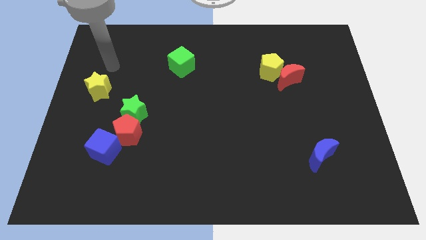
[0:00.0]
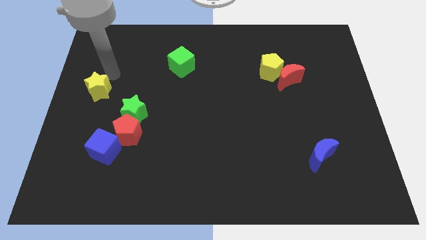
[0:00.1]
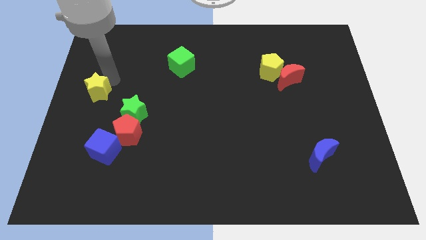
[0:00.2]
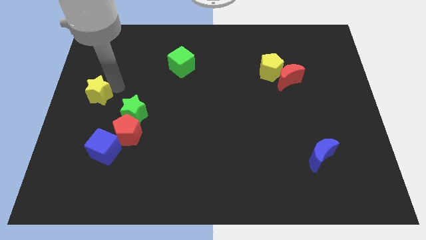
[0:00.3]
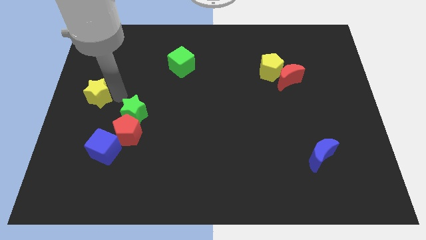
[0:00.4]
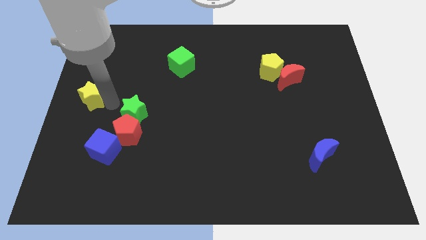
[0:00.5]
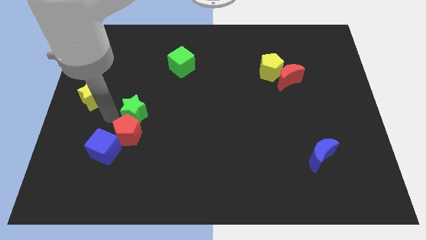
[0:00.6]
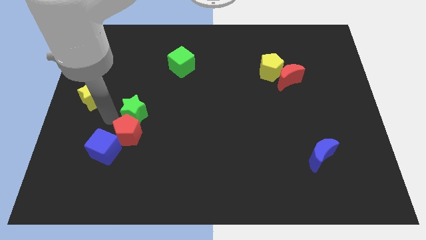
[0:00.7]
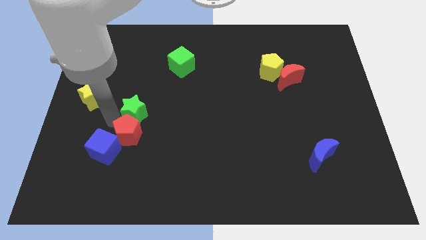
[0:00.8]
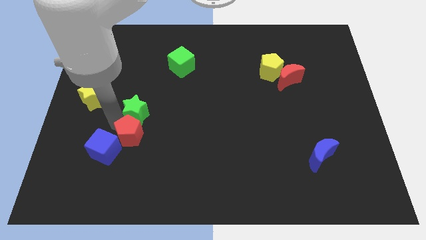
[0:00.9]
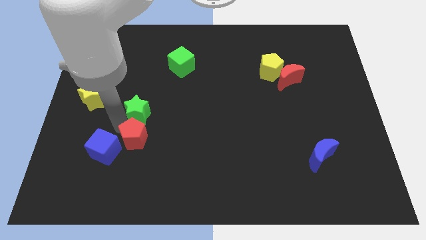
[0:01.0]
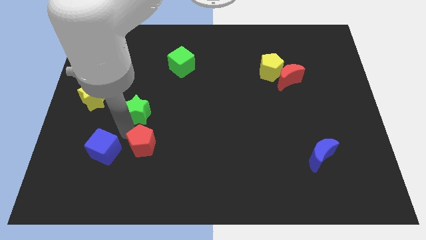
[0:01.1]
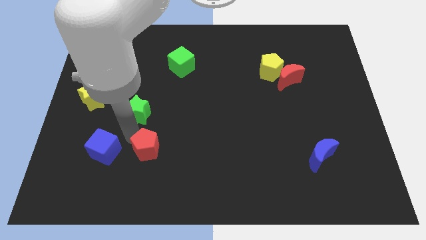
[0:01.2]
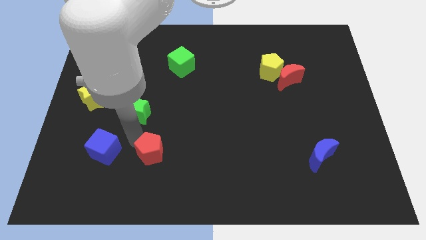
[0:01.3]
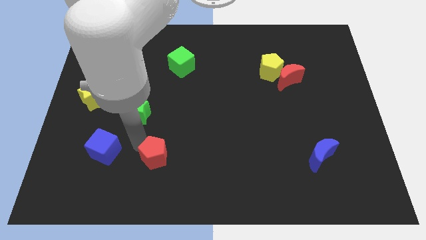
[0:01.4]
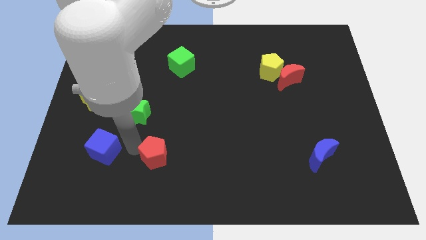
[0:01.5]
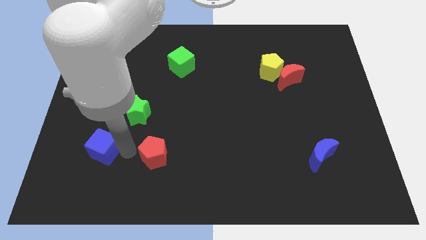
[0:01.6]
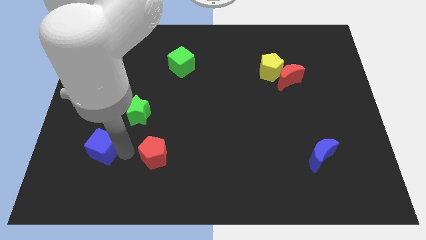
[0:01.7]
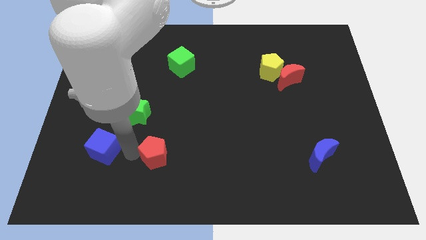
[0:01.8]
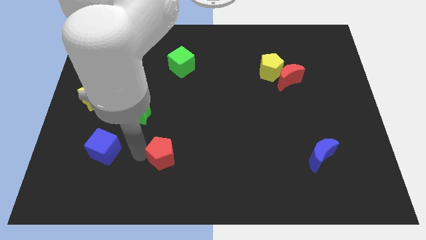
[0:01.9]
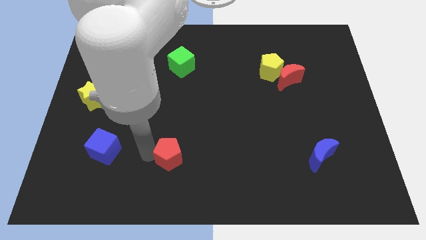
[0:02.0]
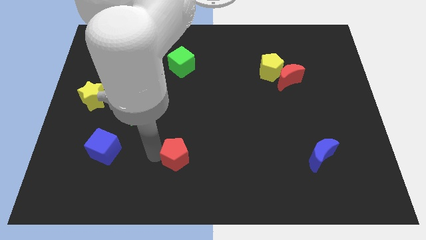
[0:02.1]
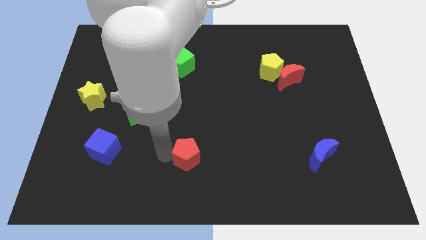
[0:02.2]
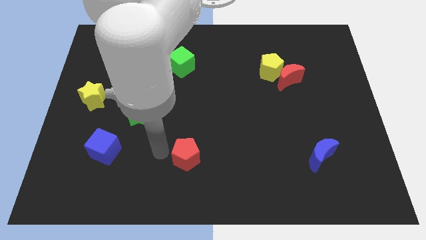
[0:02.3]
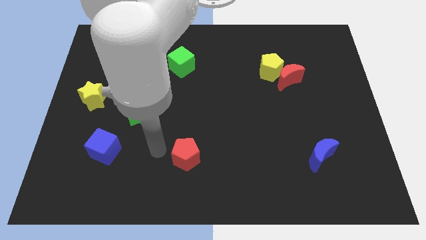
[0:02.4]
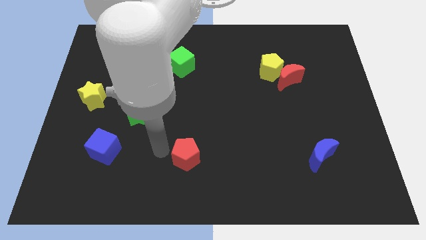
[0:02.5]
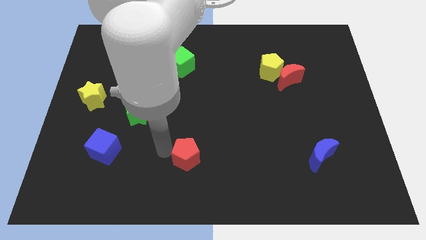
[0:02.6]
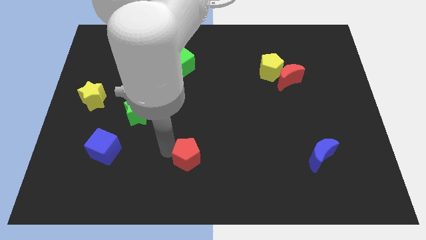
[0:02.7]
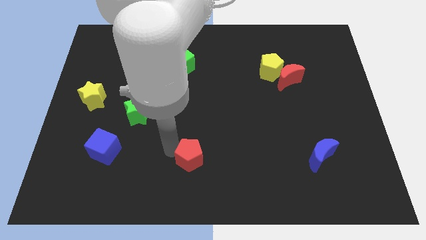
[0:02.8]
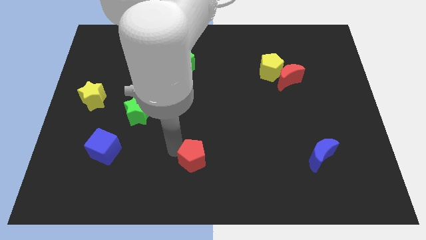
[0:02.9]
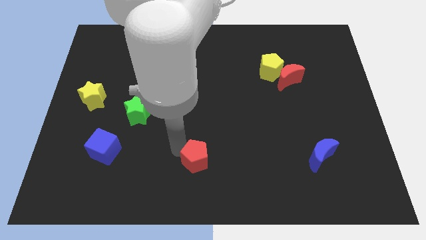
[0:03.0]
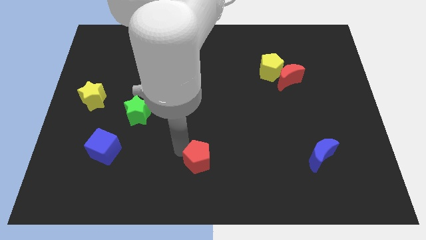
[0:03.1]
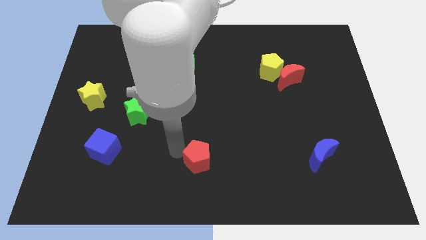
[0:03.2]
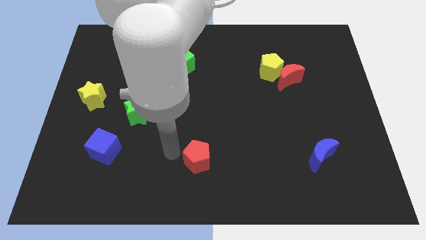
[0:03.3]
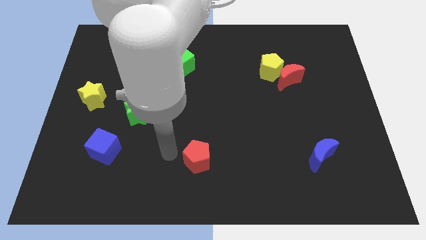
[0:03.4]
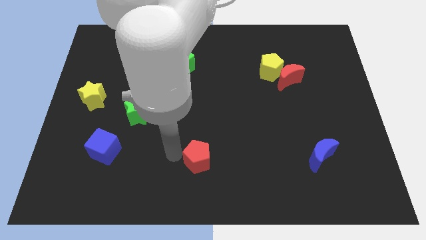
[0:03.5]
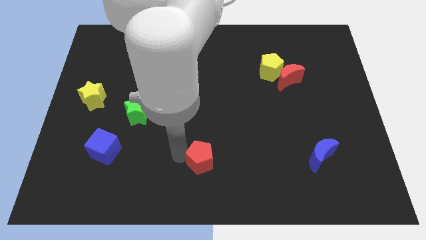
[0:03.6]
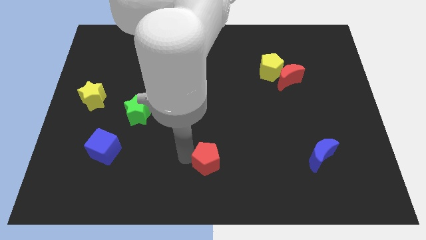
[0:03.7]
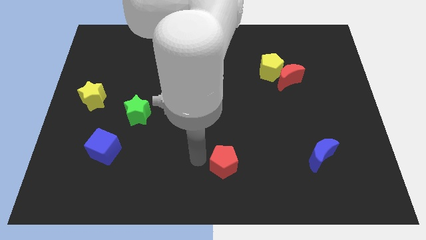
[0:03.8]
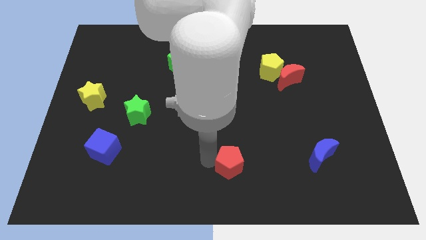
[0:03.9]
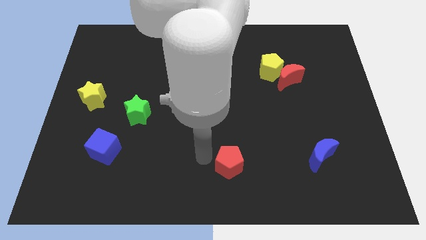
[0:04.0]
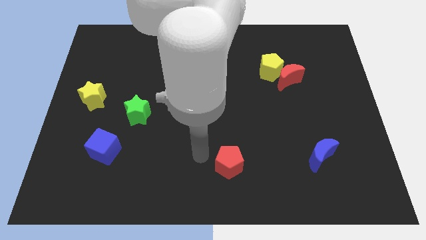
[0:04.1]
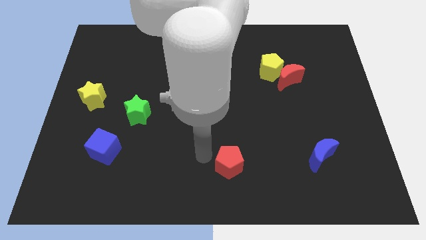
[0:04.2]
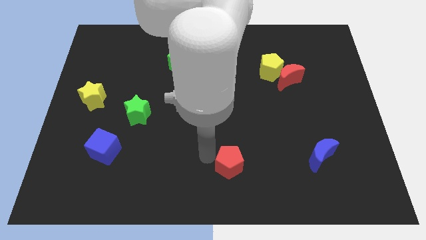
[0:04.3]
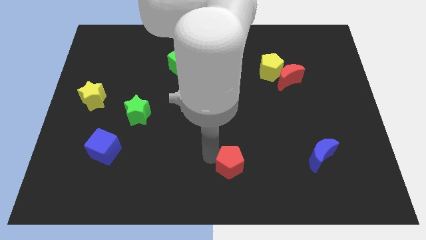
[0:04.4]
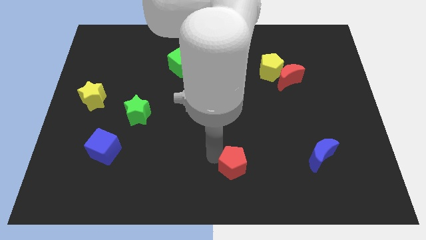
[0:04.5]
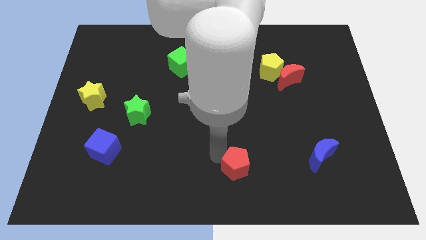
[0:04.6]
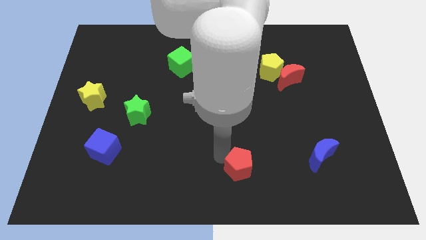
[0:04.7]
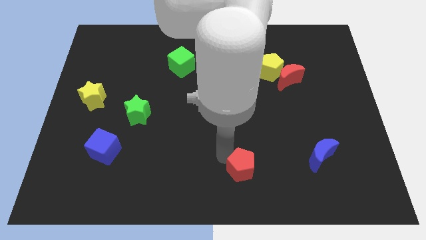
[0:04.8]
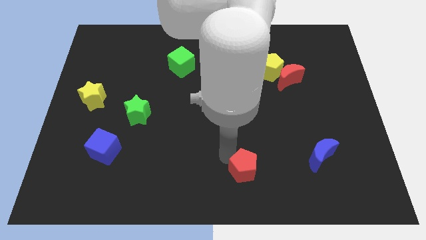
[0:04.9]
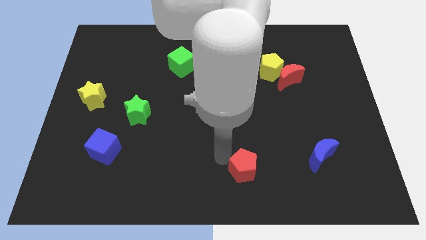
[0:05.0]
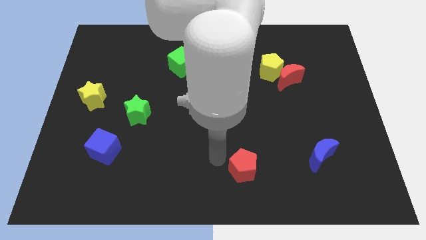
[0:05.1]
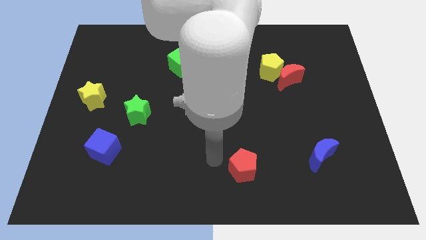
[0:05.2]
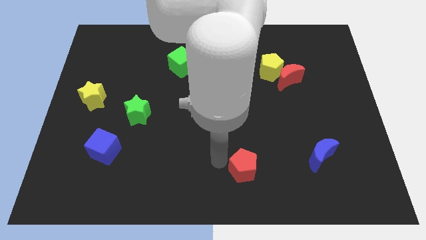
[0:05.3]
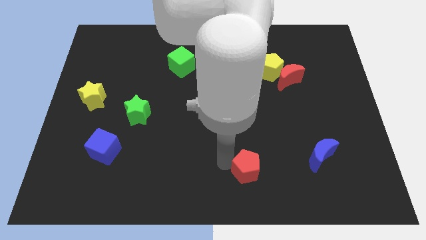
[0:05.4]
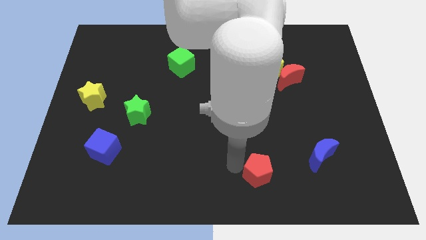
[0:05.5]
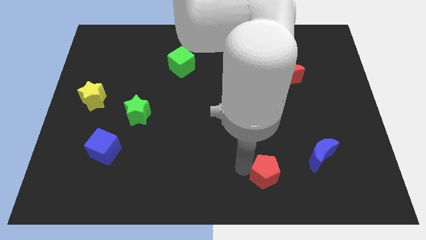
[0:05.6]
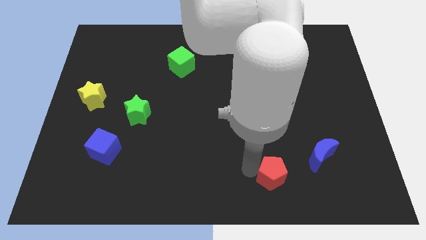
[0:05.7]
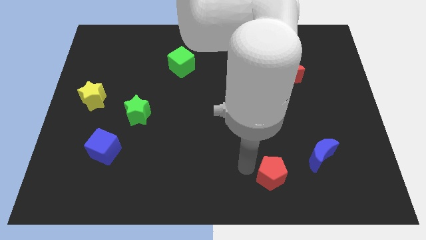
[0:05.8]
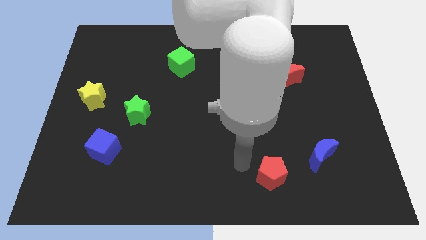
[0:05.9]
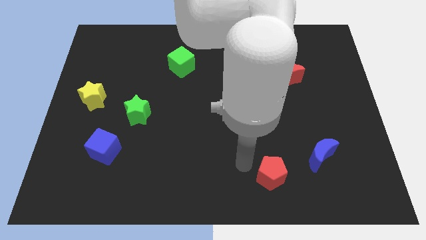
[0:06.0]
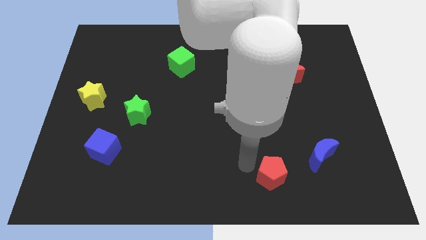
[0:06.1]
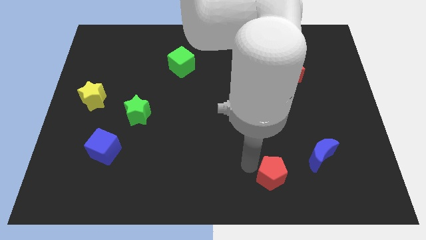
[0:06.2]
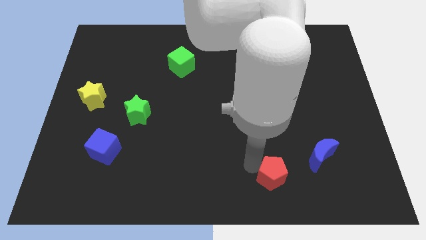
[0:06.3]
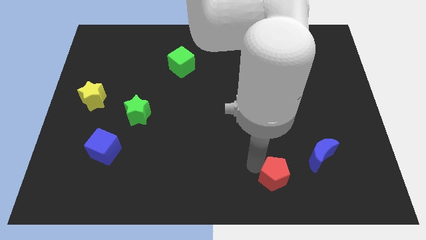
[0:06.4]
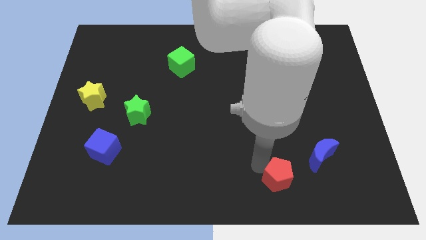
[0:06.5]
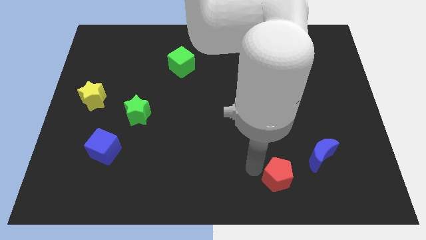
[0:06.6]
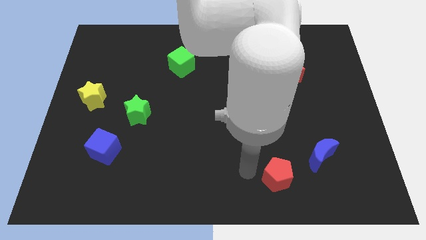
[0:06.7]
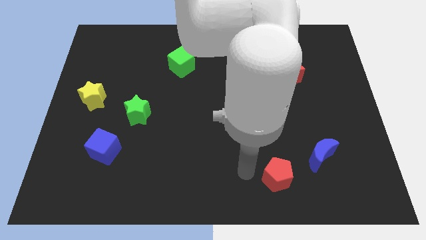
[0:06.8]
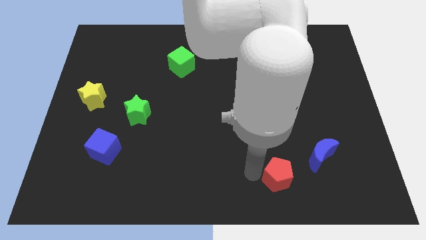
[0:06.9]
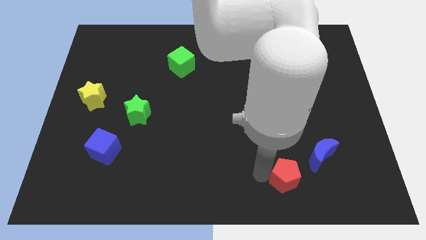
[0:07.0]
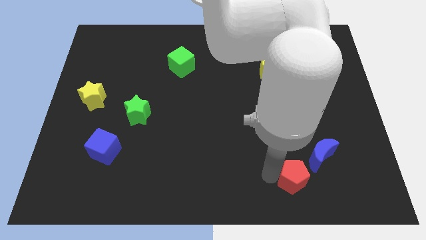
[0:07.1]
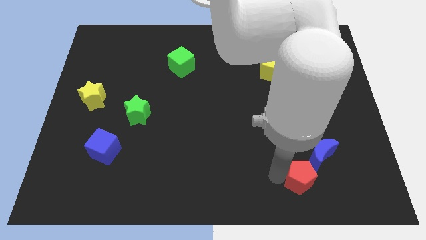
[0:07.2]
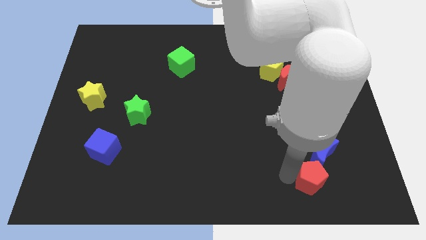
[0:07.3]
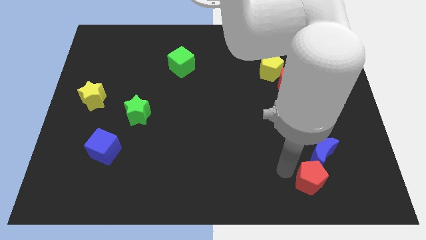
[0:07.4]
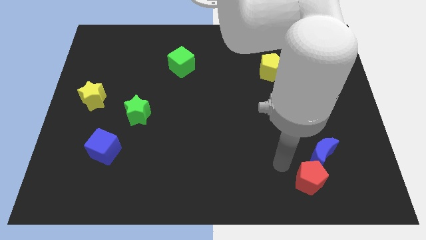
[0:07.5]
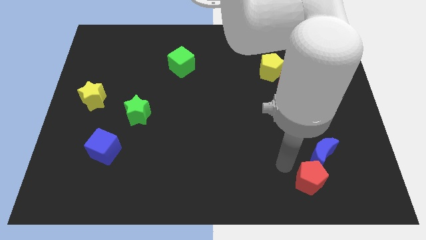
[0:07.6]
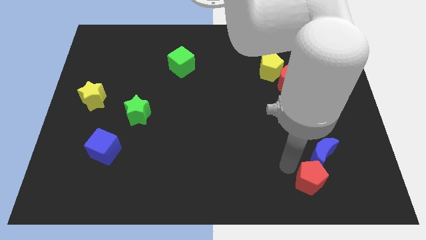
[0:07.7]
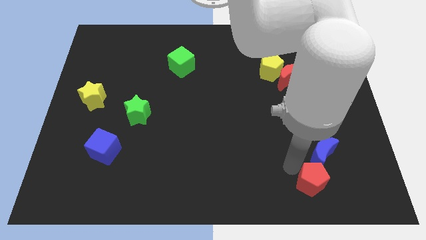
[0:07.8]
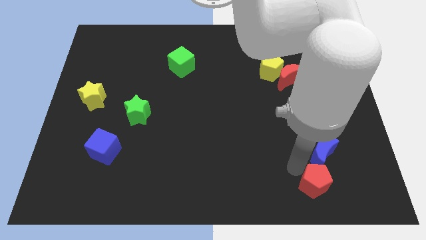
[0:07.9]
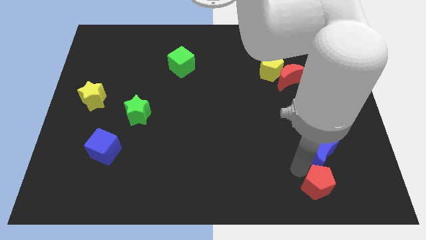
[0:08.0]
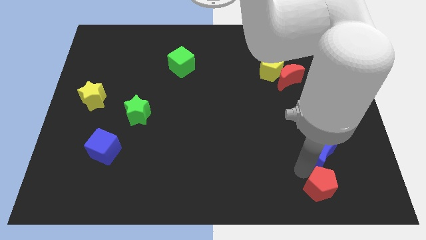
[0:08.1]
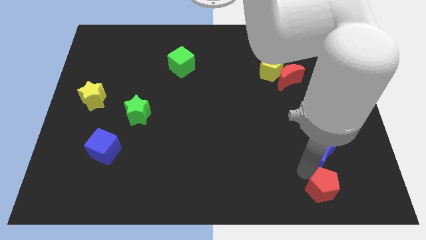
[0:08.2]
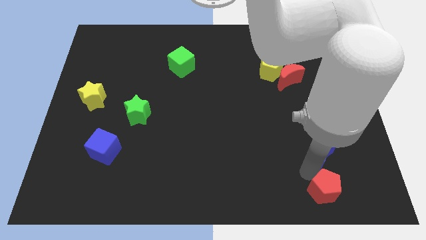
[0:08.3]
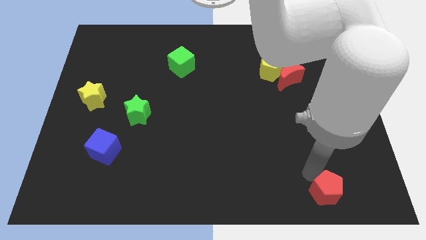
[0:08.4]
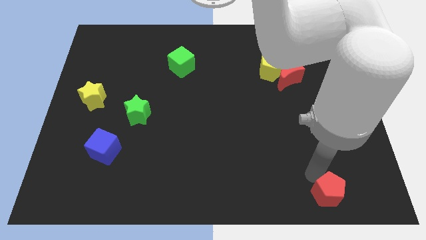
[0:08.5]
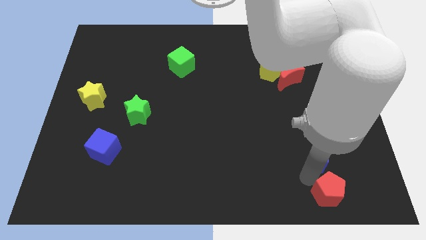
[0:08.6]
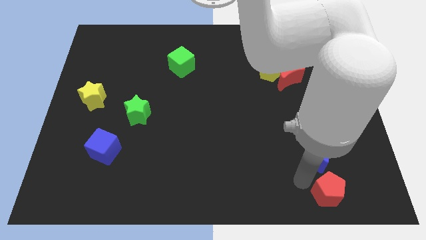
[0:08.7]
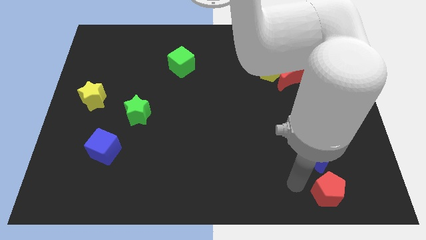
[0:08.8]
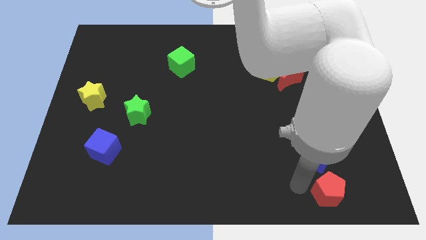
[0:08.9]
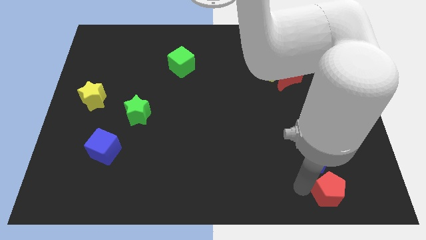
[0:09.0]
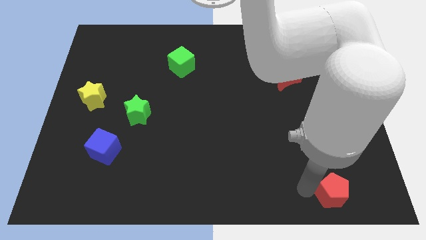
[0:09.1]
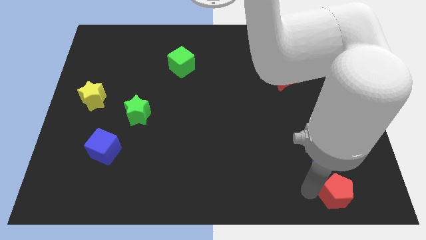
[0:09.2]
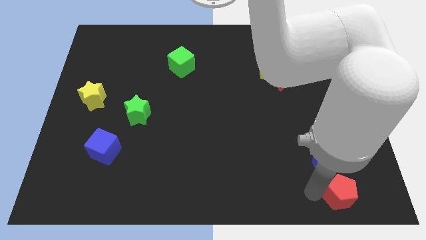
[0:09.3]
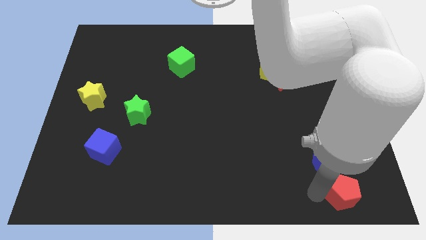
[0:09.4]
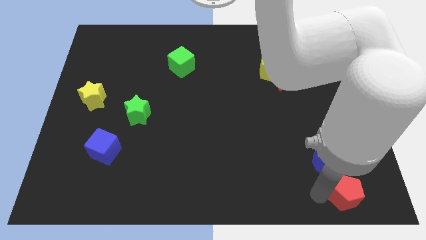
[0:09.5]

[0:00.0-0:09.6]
put the red pentagon to the bottom right of the board
